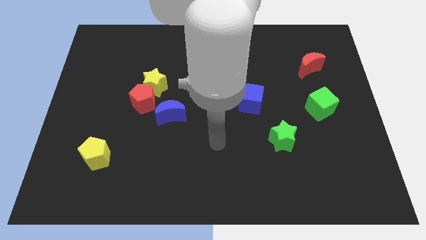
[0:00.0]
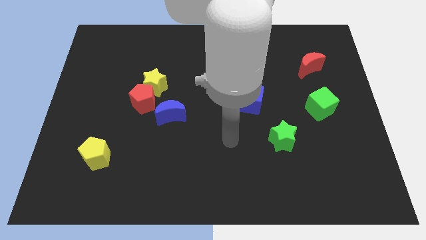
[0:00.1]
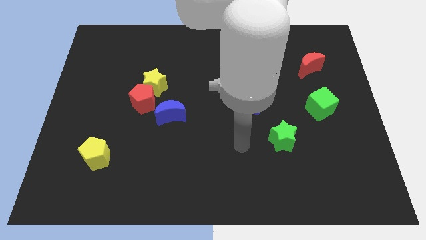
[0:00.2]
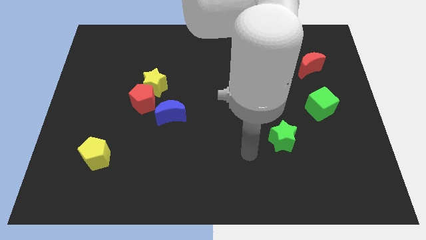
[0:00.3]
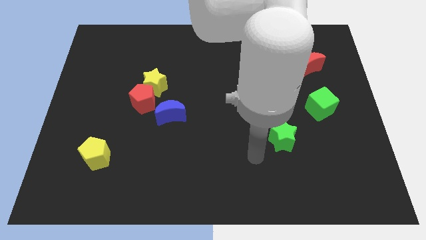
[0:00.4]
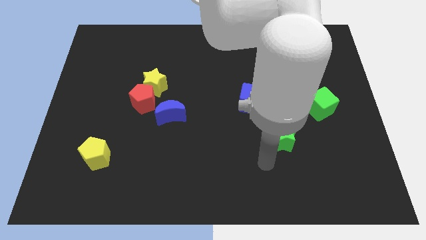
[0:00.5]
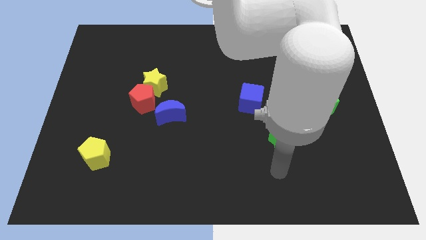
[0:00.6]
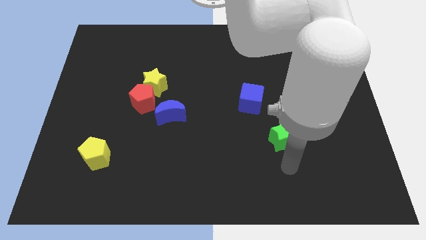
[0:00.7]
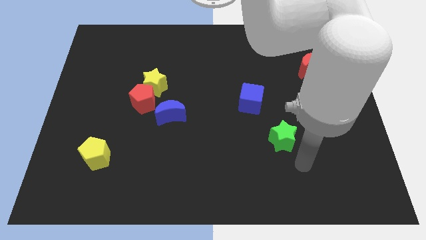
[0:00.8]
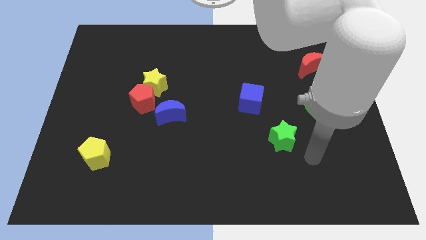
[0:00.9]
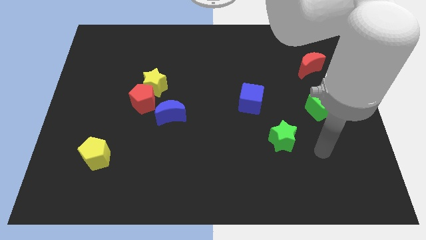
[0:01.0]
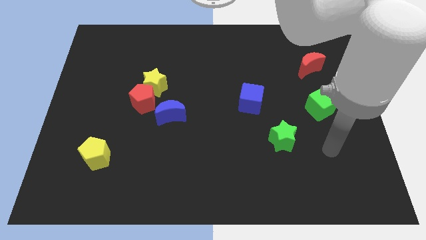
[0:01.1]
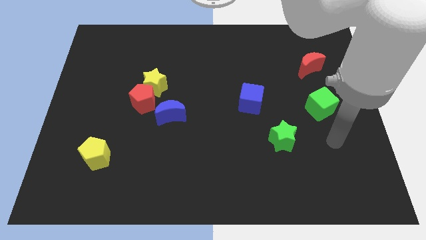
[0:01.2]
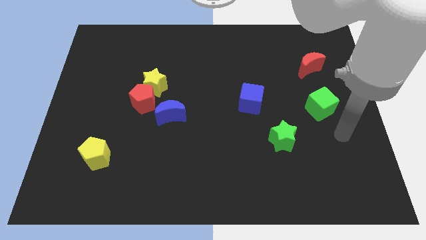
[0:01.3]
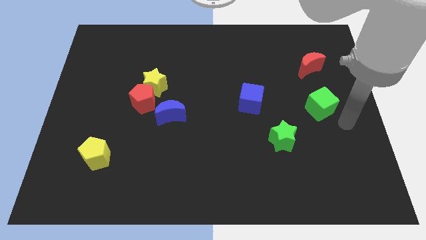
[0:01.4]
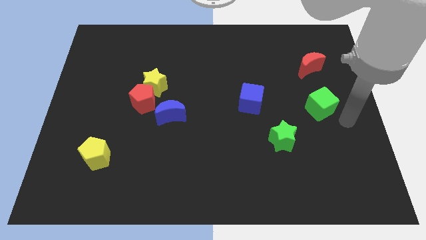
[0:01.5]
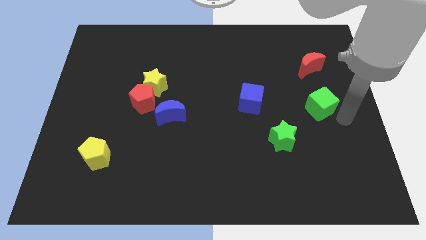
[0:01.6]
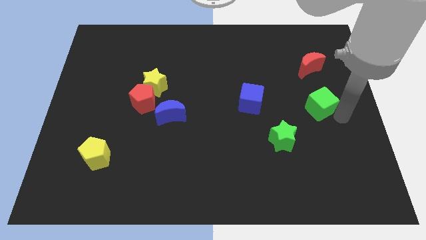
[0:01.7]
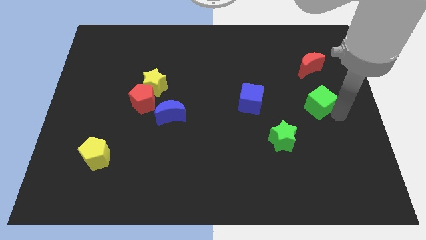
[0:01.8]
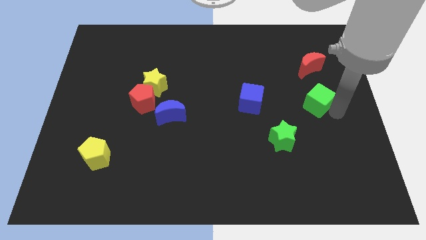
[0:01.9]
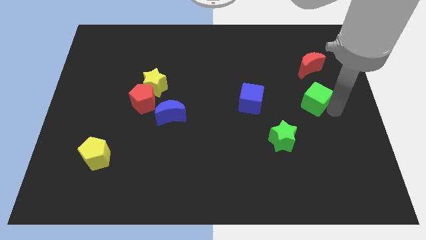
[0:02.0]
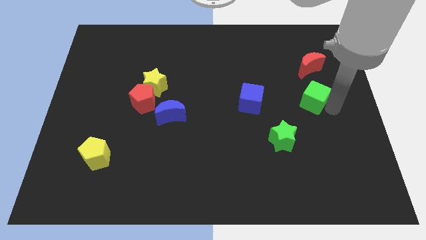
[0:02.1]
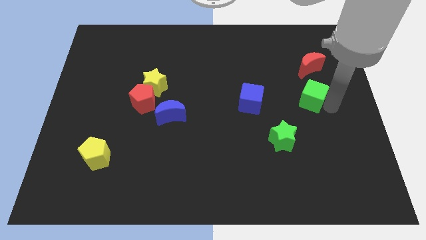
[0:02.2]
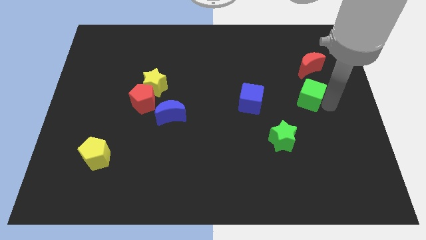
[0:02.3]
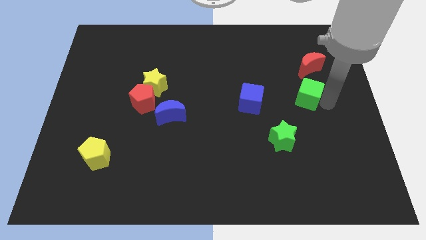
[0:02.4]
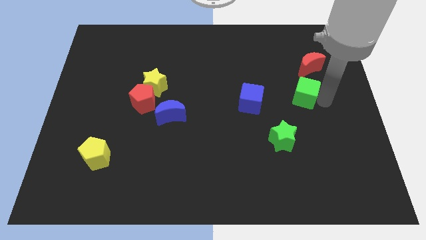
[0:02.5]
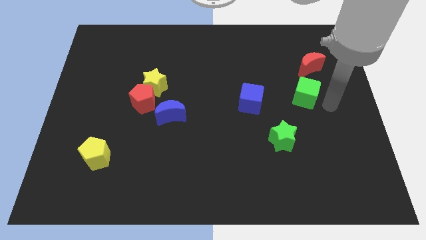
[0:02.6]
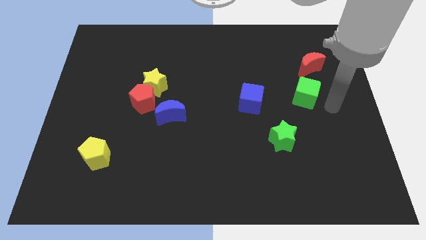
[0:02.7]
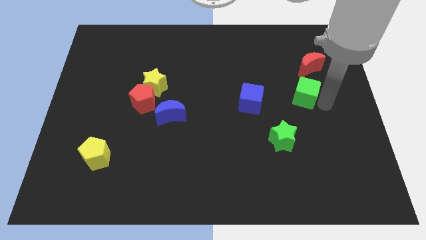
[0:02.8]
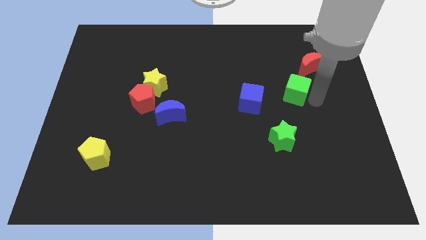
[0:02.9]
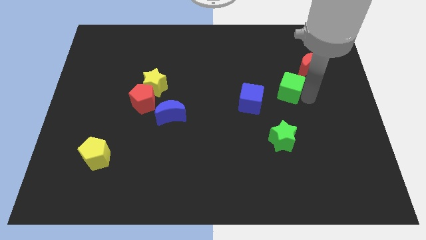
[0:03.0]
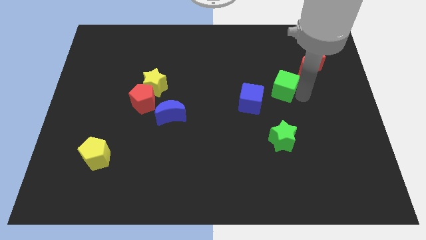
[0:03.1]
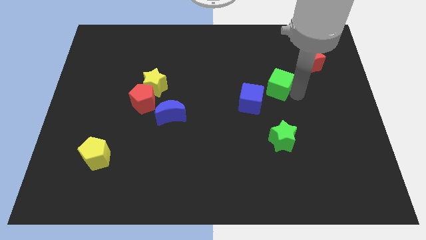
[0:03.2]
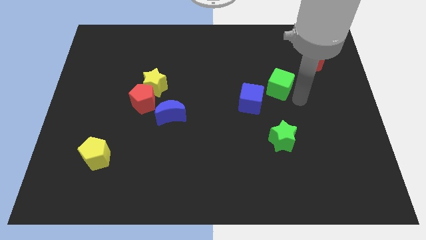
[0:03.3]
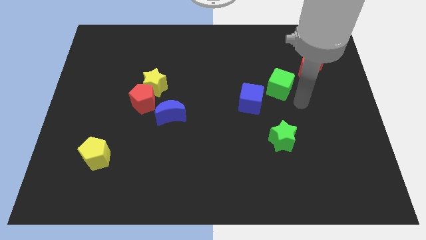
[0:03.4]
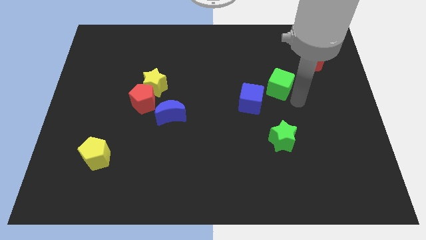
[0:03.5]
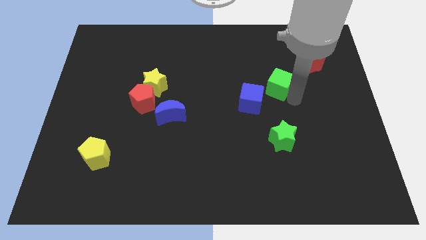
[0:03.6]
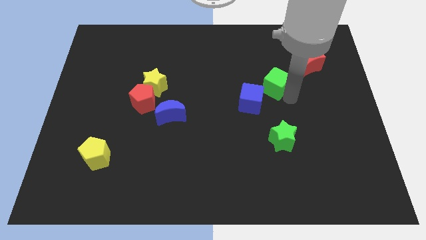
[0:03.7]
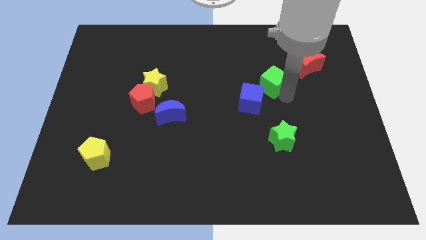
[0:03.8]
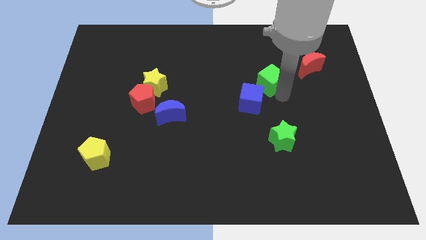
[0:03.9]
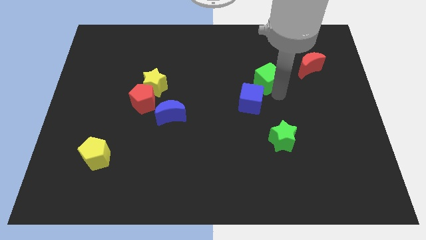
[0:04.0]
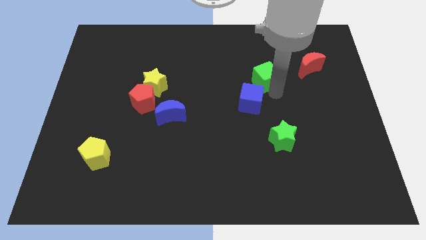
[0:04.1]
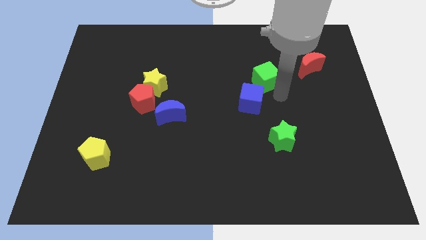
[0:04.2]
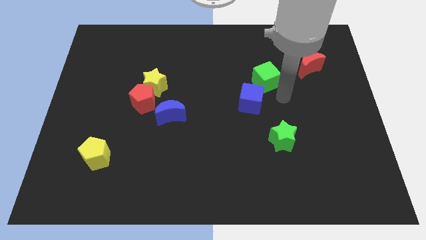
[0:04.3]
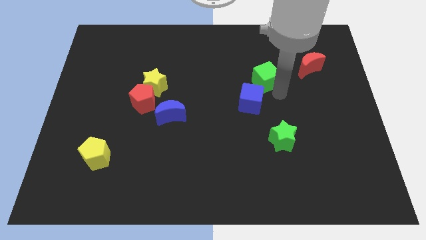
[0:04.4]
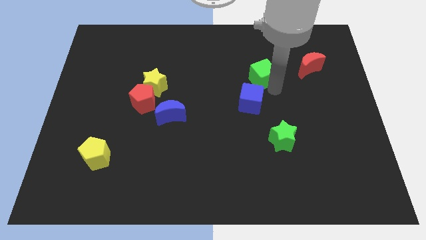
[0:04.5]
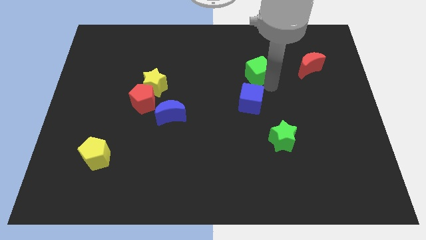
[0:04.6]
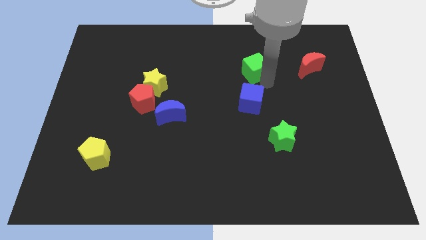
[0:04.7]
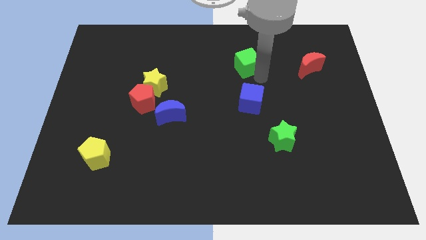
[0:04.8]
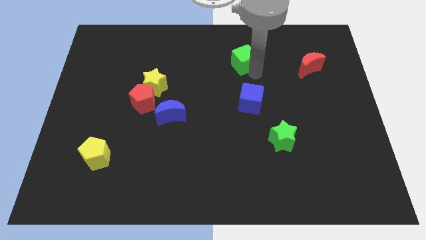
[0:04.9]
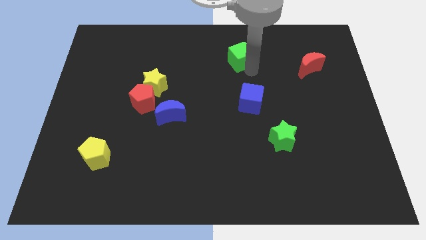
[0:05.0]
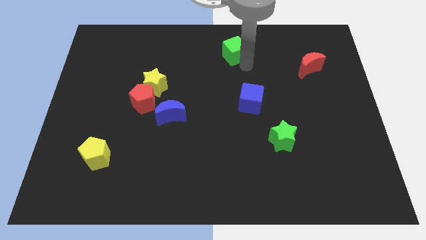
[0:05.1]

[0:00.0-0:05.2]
push the green cube to the towards your base
